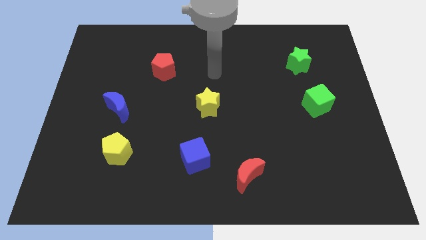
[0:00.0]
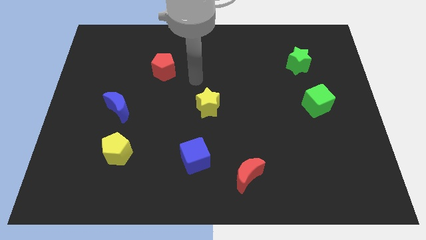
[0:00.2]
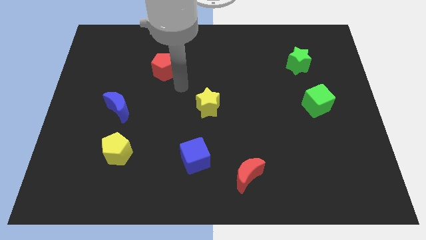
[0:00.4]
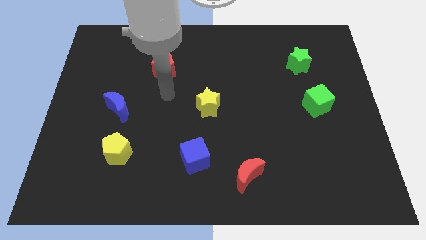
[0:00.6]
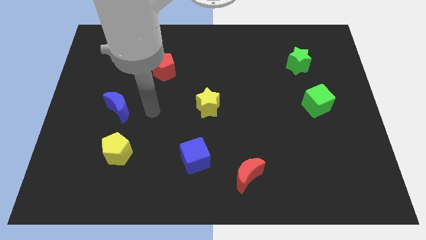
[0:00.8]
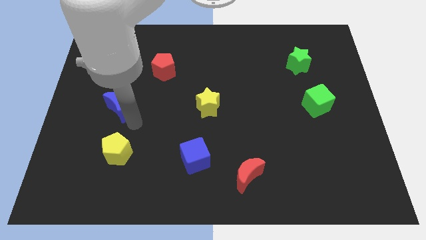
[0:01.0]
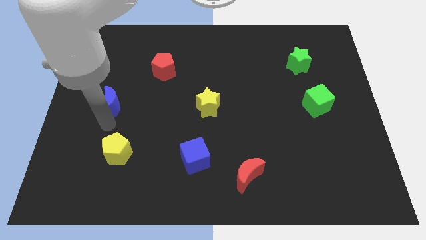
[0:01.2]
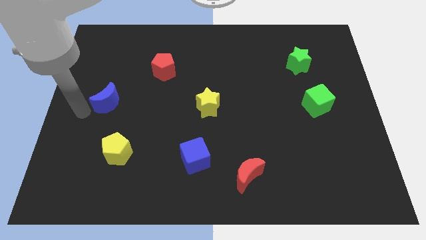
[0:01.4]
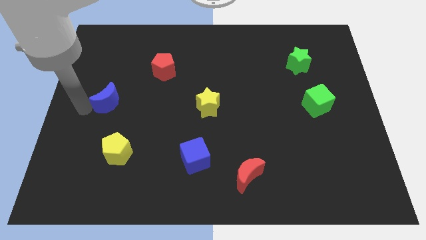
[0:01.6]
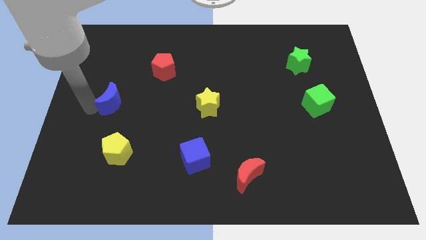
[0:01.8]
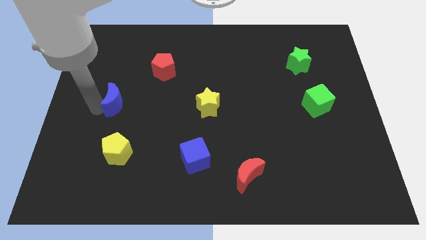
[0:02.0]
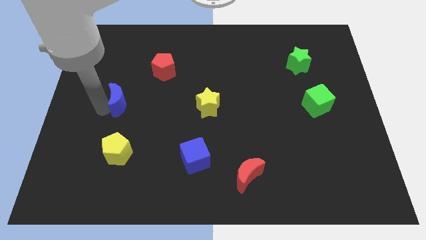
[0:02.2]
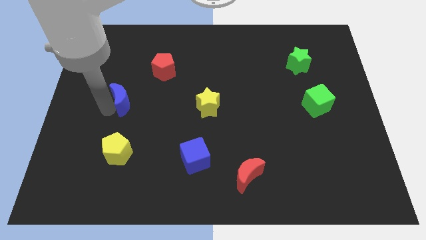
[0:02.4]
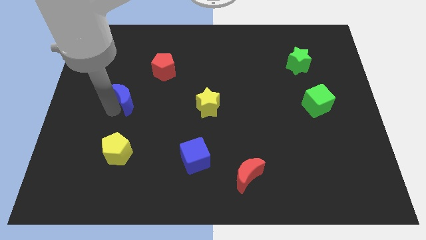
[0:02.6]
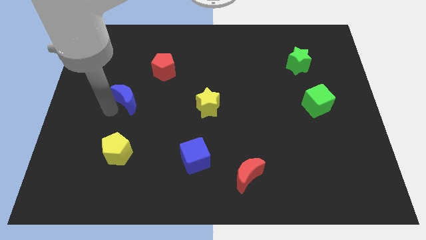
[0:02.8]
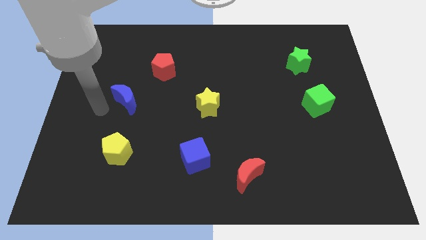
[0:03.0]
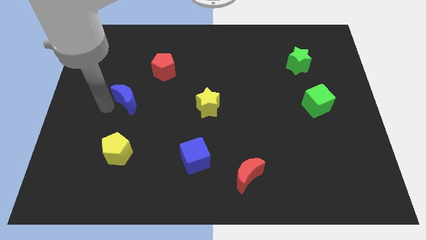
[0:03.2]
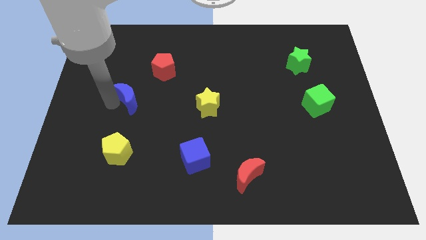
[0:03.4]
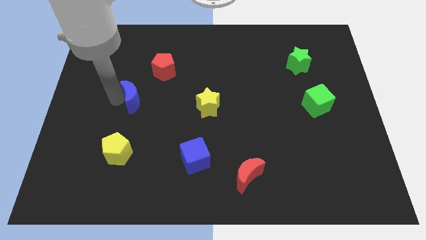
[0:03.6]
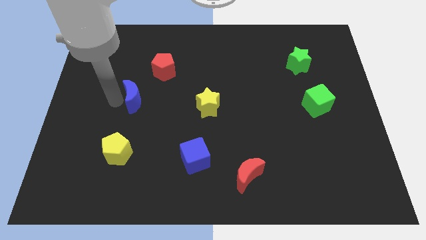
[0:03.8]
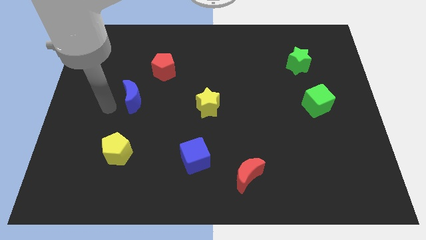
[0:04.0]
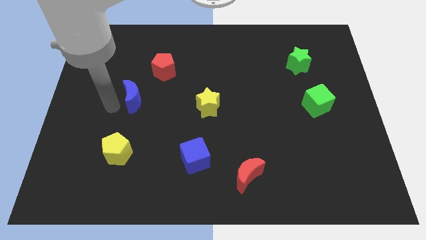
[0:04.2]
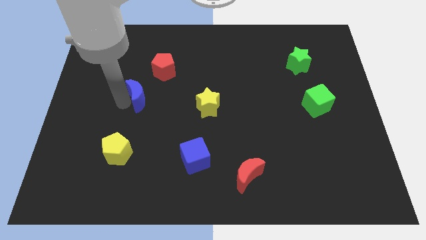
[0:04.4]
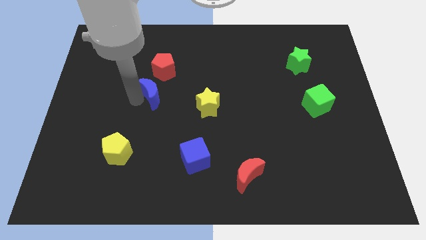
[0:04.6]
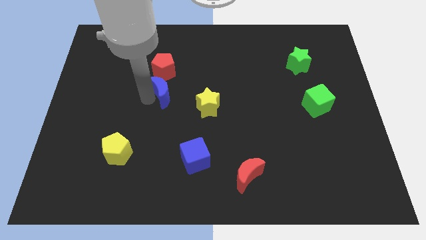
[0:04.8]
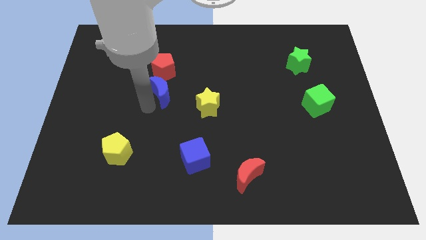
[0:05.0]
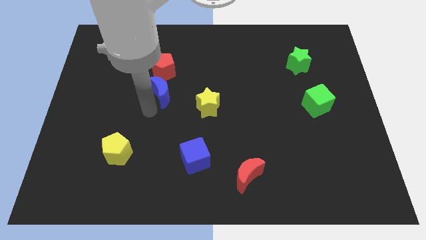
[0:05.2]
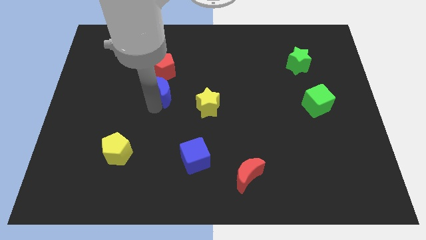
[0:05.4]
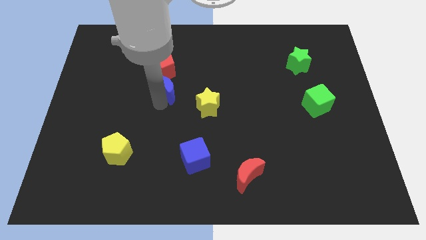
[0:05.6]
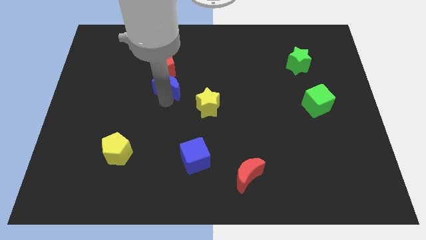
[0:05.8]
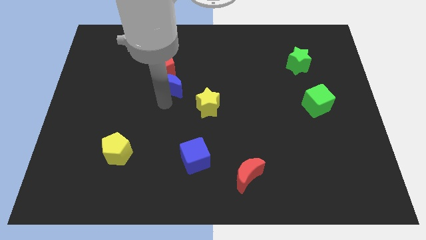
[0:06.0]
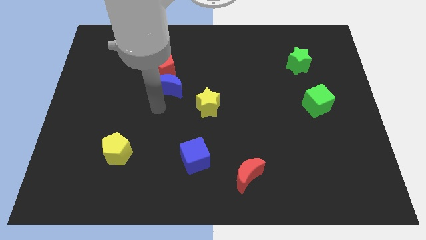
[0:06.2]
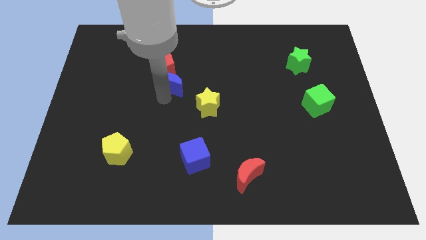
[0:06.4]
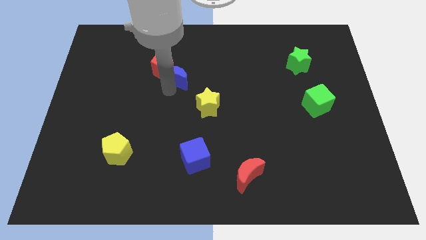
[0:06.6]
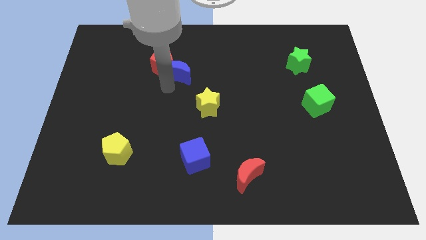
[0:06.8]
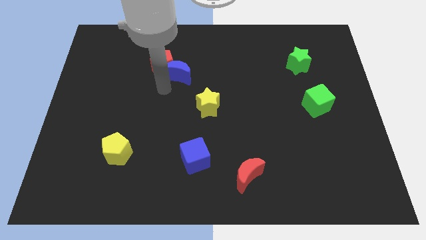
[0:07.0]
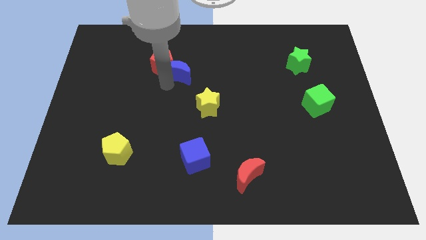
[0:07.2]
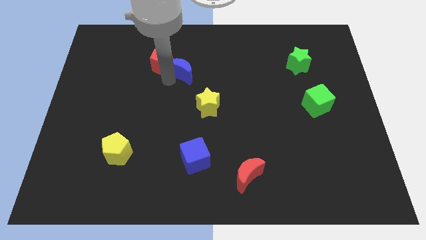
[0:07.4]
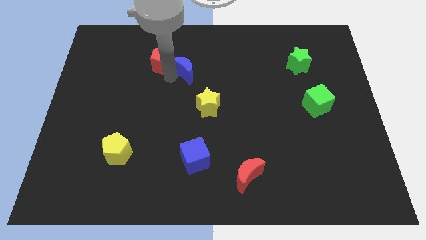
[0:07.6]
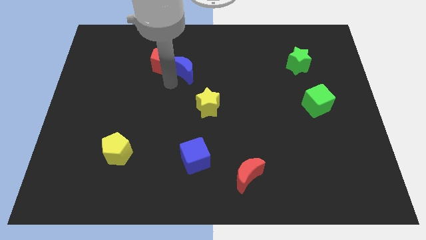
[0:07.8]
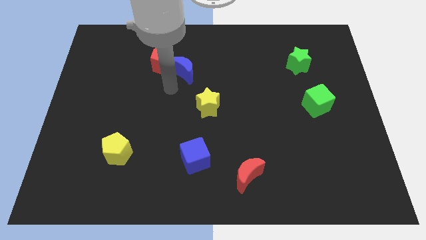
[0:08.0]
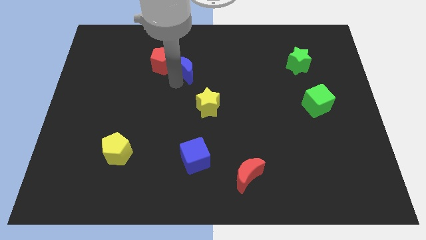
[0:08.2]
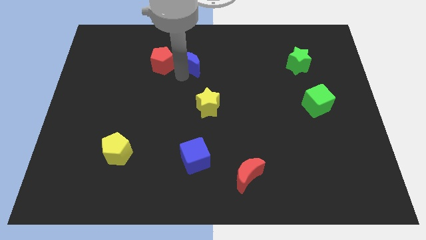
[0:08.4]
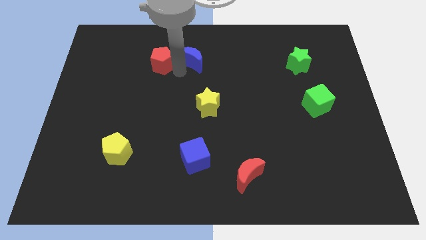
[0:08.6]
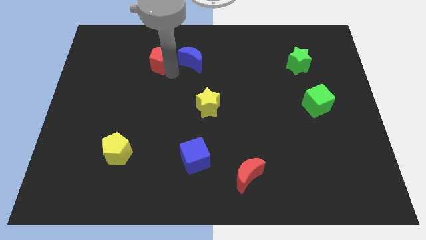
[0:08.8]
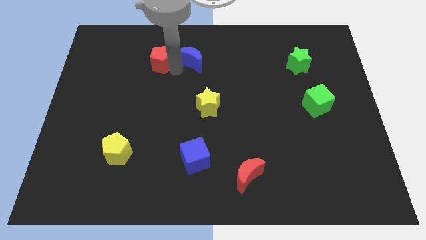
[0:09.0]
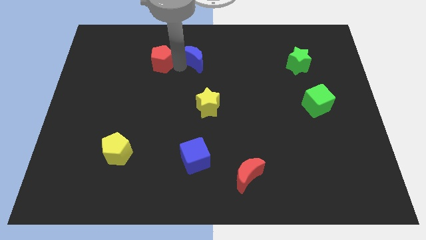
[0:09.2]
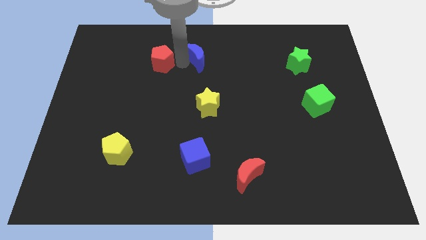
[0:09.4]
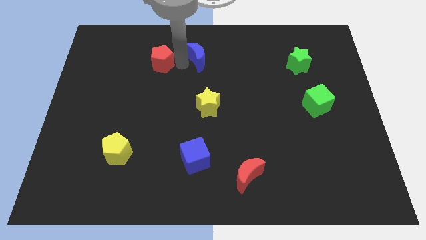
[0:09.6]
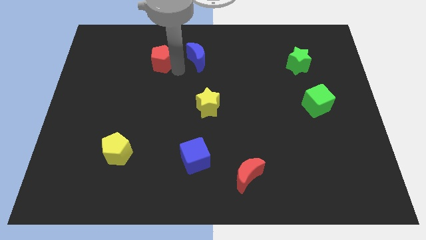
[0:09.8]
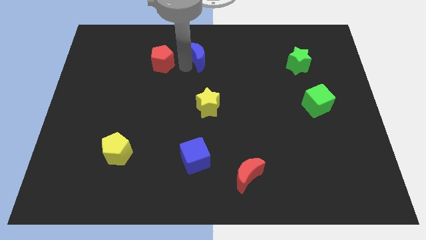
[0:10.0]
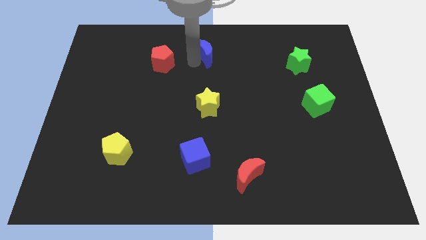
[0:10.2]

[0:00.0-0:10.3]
slide the blue moon to the top side
